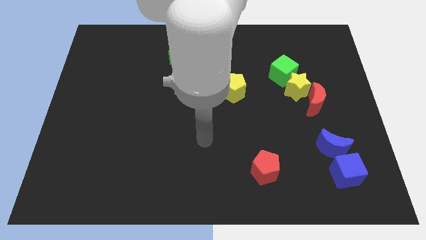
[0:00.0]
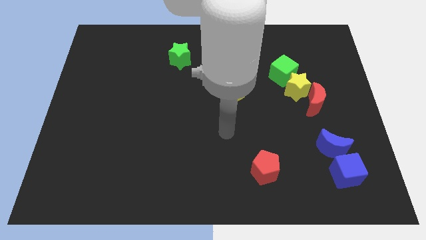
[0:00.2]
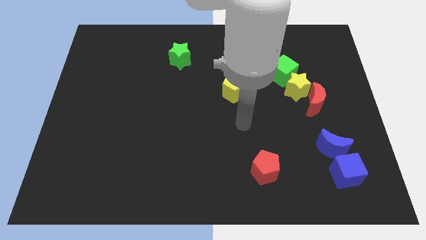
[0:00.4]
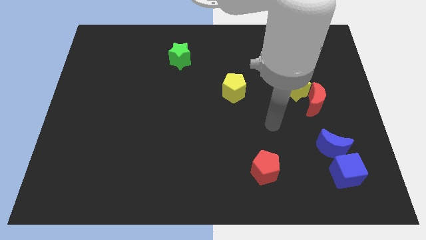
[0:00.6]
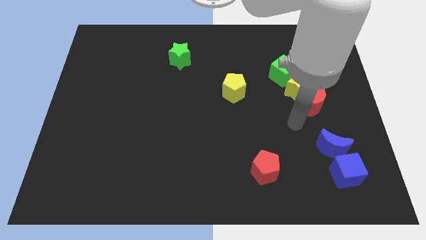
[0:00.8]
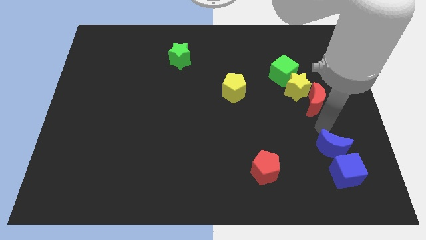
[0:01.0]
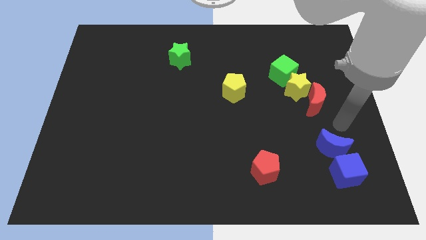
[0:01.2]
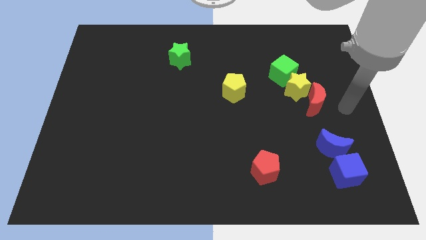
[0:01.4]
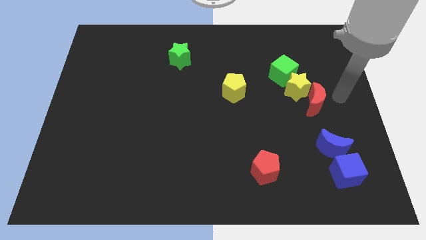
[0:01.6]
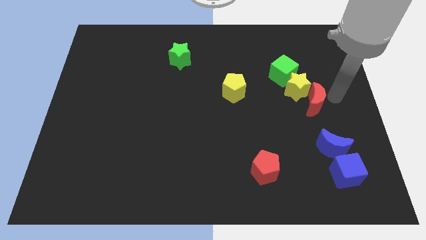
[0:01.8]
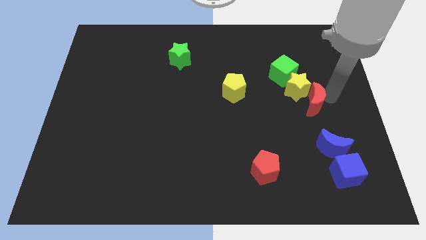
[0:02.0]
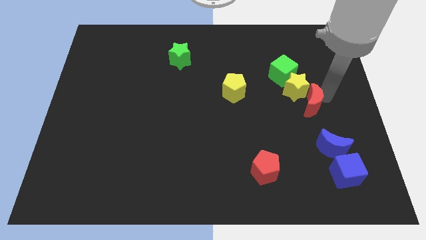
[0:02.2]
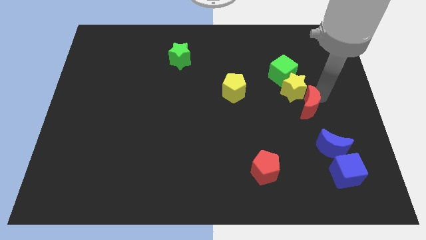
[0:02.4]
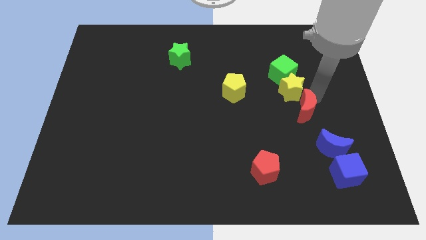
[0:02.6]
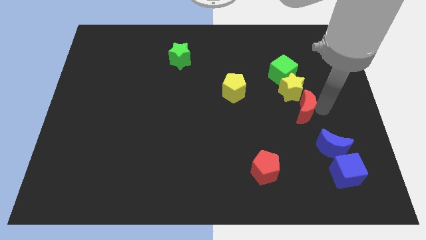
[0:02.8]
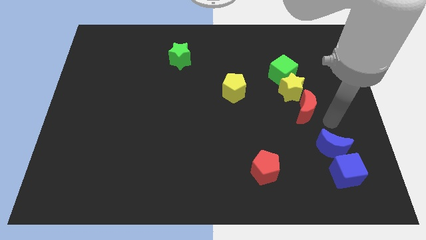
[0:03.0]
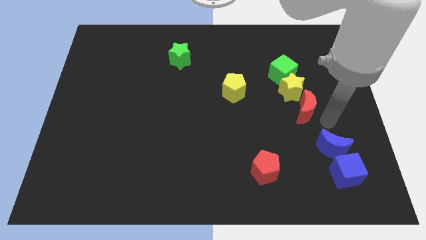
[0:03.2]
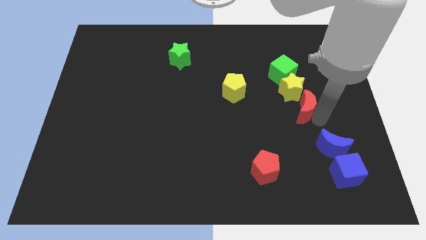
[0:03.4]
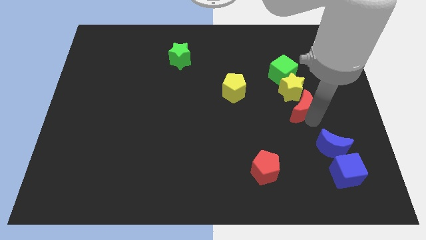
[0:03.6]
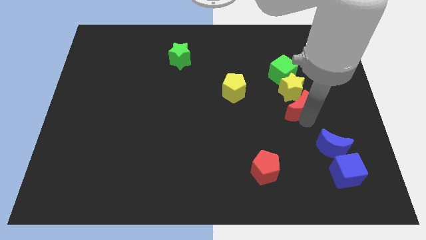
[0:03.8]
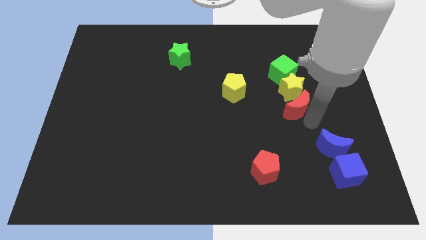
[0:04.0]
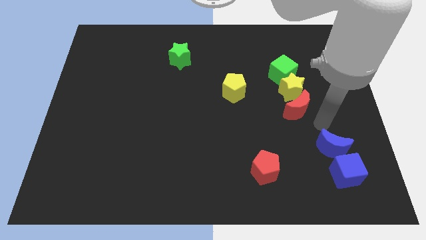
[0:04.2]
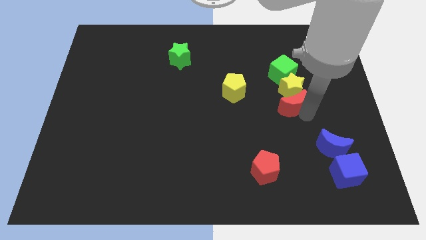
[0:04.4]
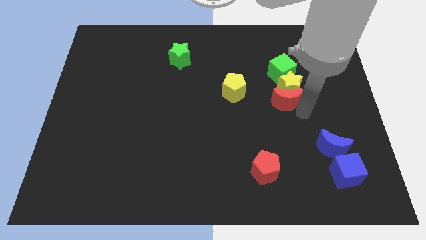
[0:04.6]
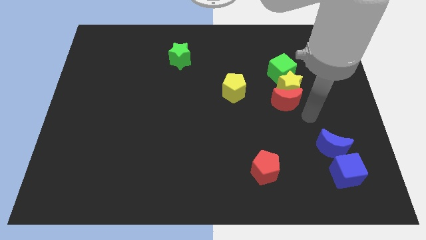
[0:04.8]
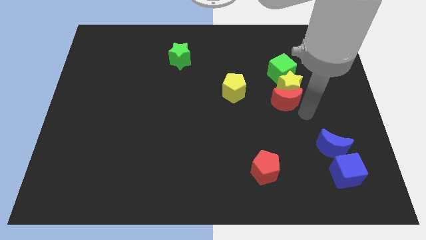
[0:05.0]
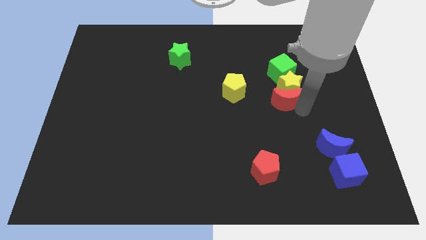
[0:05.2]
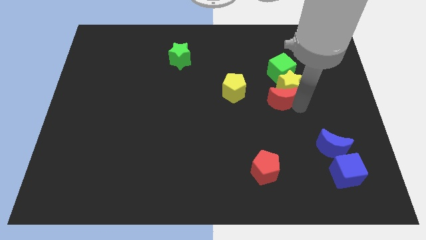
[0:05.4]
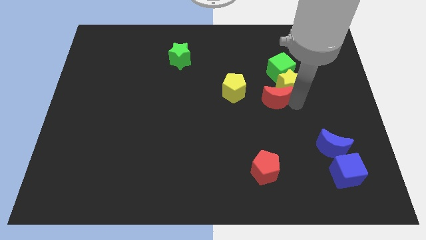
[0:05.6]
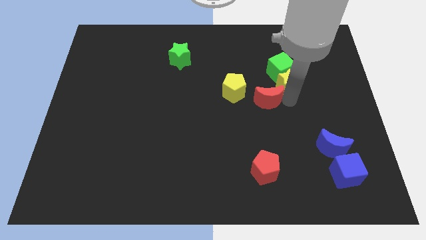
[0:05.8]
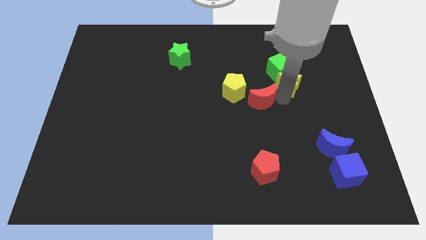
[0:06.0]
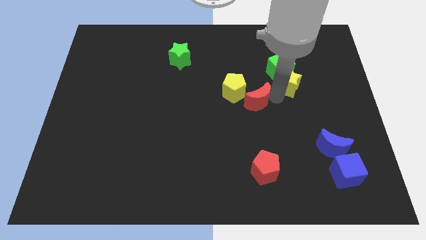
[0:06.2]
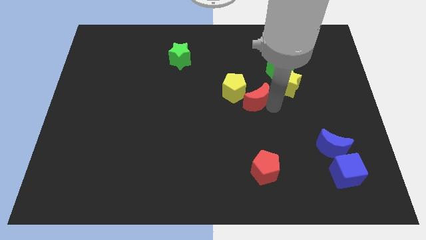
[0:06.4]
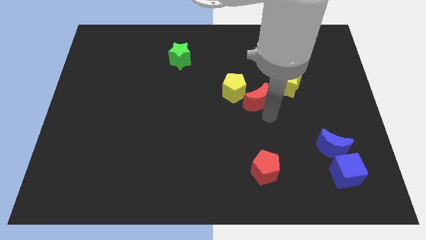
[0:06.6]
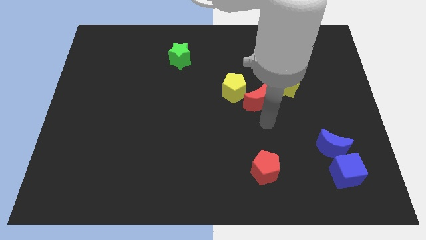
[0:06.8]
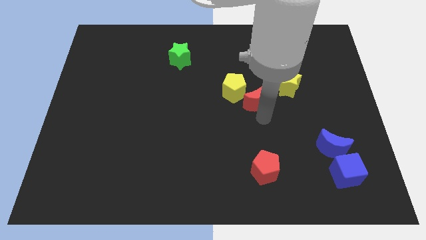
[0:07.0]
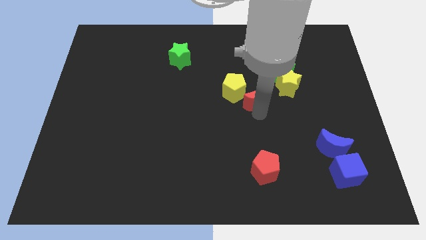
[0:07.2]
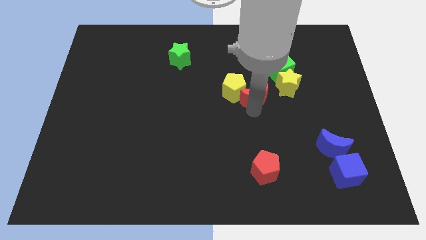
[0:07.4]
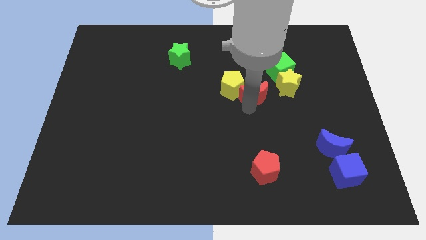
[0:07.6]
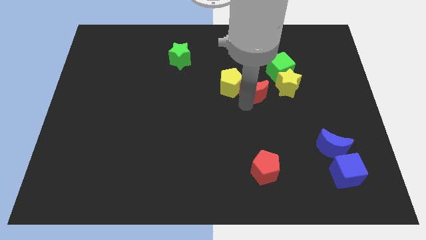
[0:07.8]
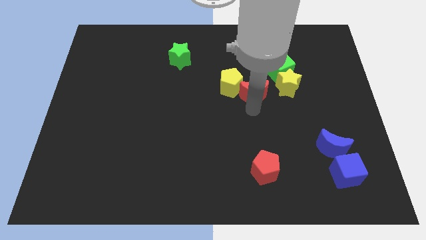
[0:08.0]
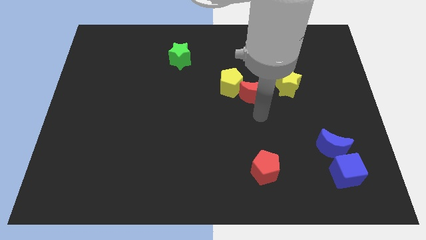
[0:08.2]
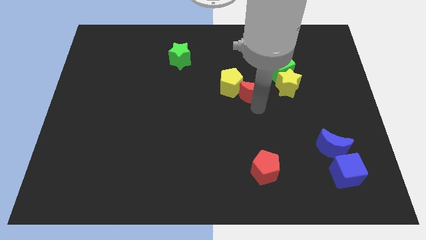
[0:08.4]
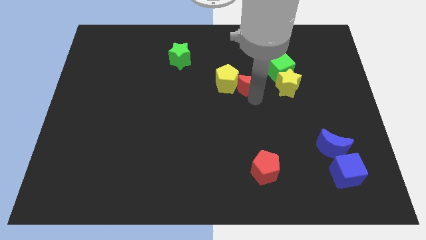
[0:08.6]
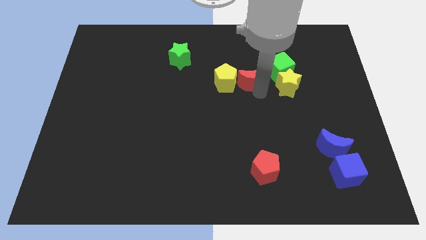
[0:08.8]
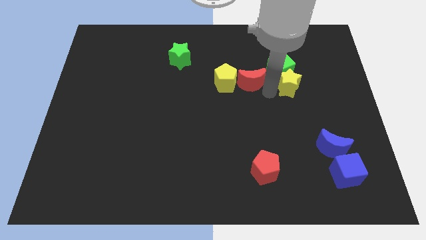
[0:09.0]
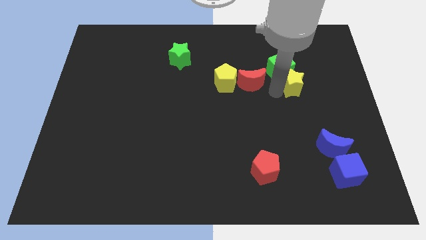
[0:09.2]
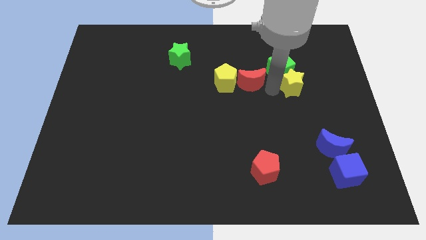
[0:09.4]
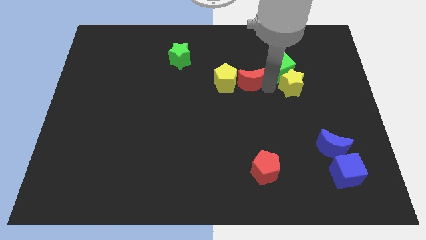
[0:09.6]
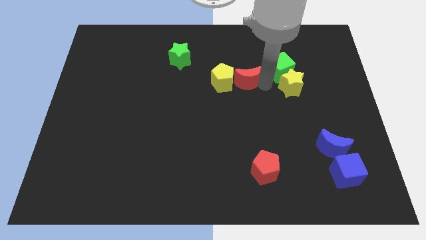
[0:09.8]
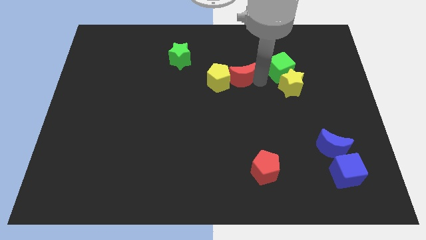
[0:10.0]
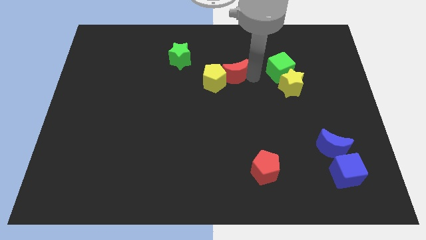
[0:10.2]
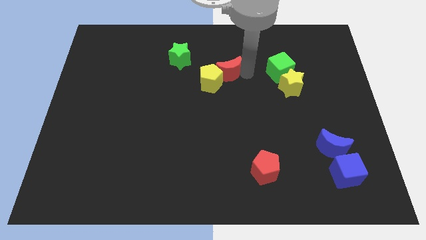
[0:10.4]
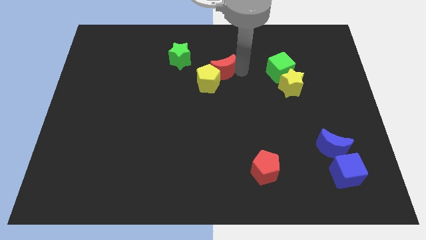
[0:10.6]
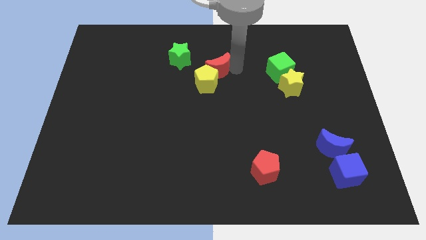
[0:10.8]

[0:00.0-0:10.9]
push the red moon to the bottom right of the green star

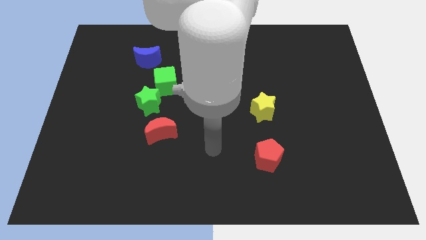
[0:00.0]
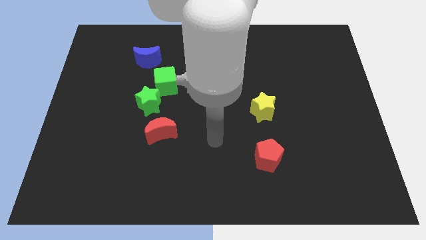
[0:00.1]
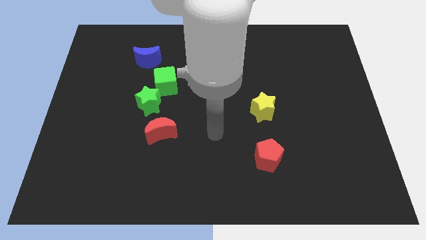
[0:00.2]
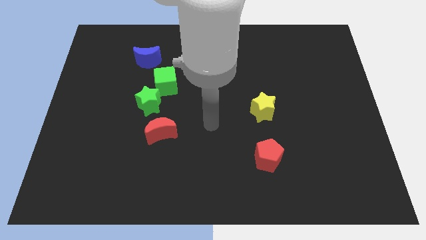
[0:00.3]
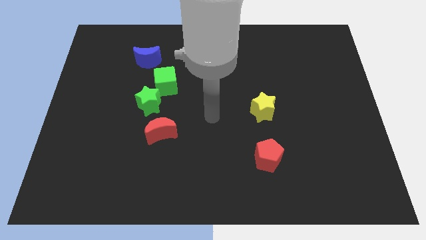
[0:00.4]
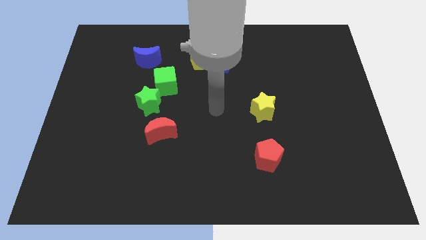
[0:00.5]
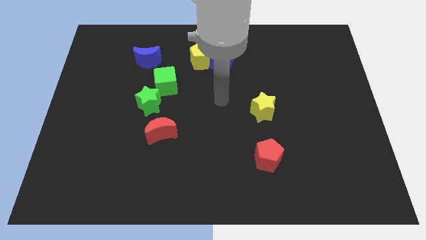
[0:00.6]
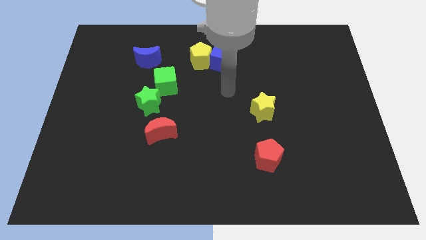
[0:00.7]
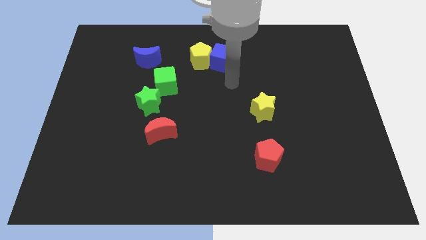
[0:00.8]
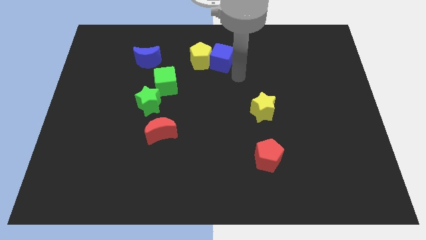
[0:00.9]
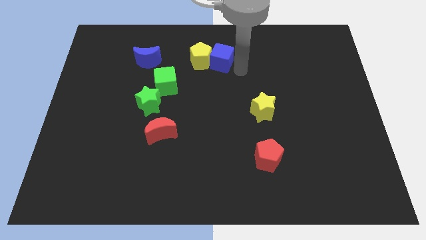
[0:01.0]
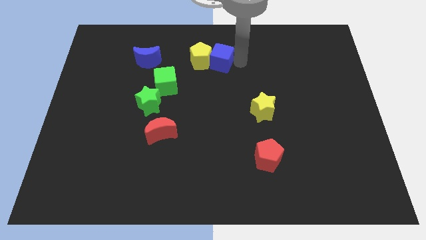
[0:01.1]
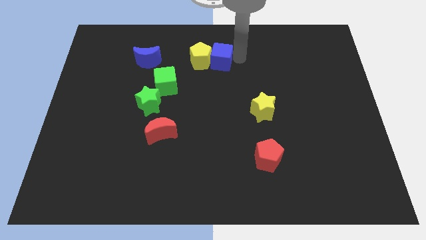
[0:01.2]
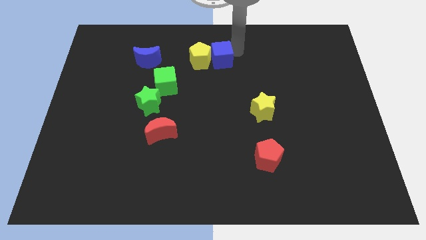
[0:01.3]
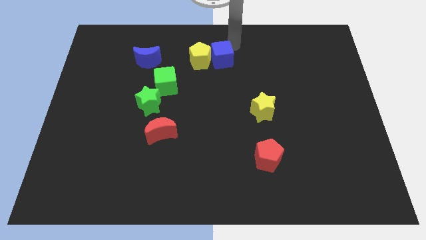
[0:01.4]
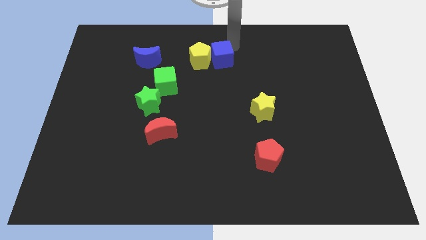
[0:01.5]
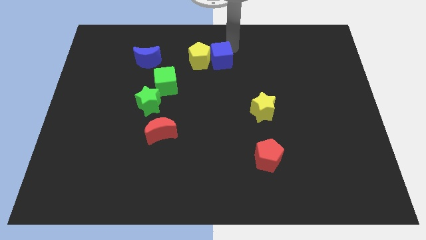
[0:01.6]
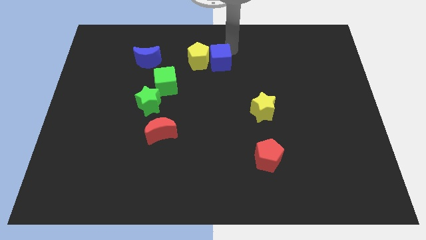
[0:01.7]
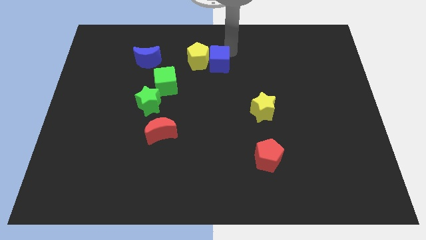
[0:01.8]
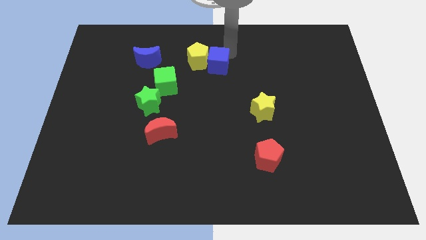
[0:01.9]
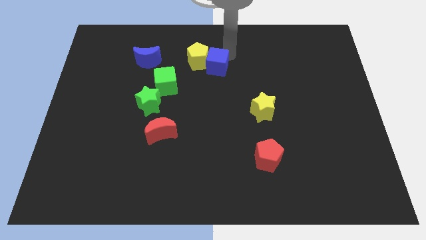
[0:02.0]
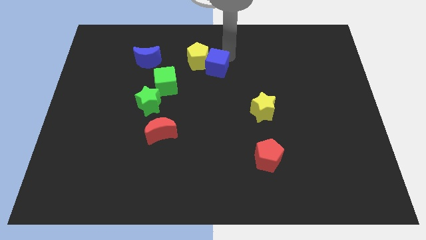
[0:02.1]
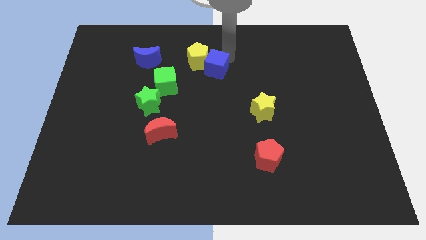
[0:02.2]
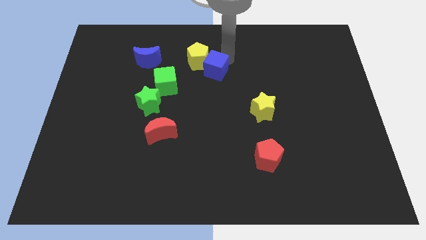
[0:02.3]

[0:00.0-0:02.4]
move the blue cube to the bottom side of the yellow pentagon
